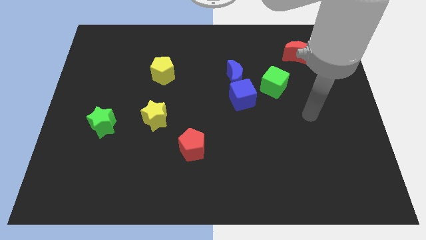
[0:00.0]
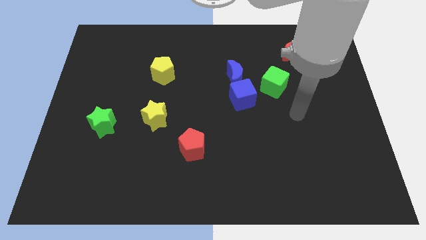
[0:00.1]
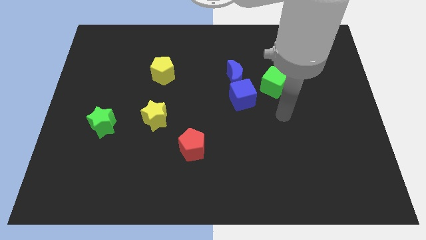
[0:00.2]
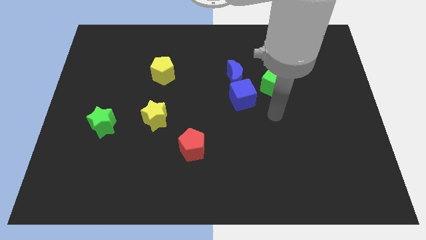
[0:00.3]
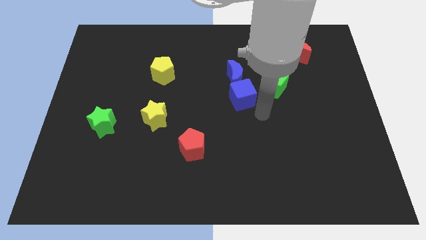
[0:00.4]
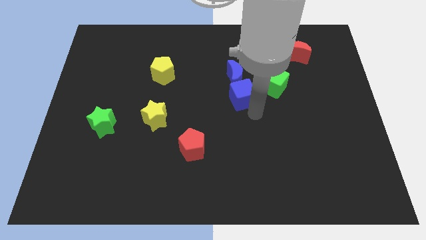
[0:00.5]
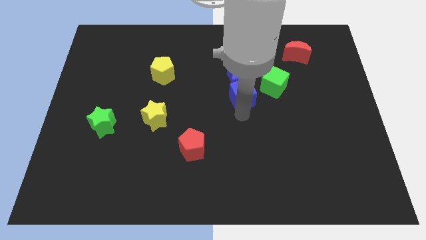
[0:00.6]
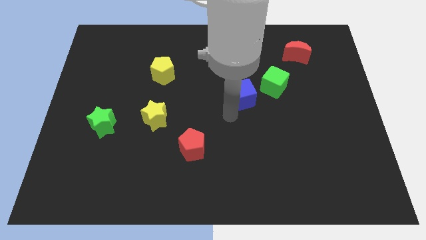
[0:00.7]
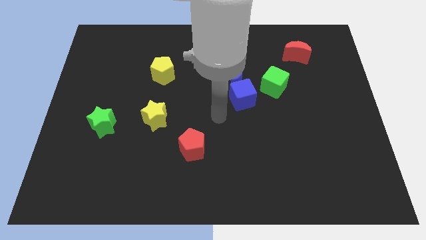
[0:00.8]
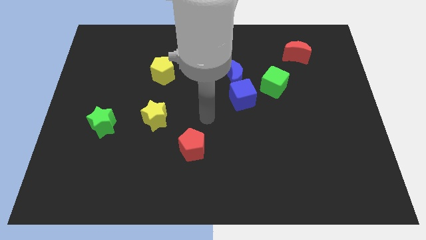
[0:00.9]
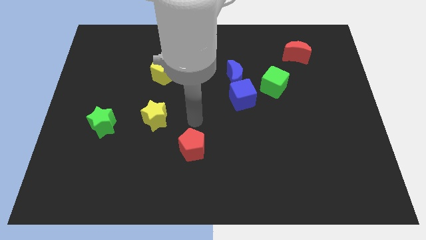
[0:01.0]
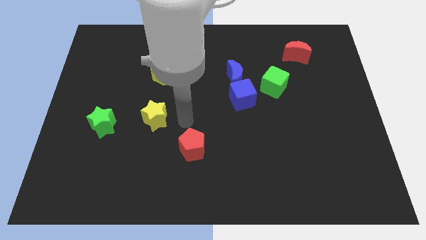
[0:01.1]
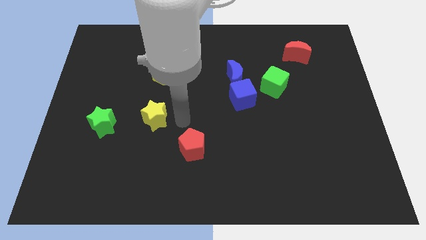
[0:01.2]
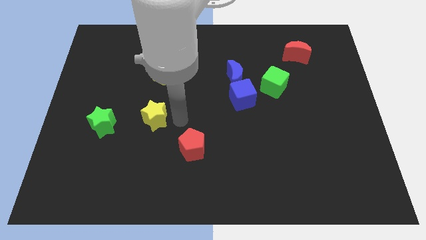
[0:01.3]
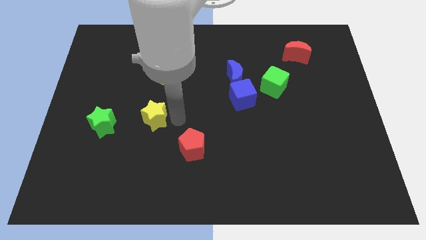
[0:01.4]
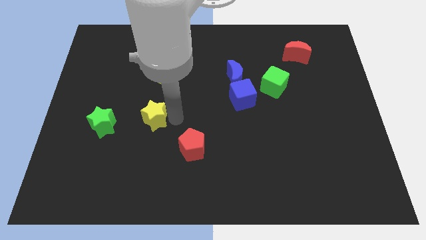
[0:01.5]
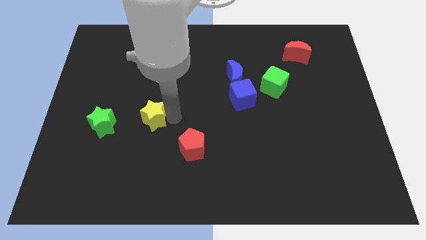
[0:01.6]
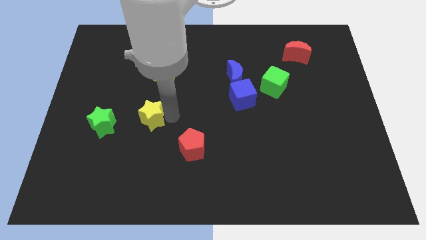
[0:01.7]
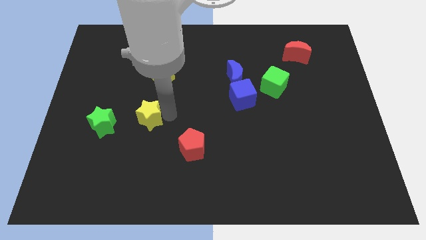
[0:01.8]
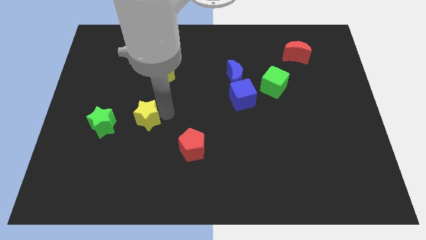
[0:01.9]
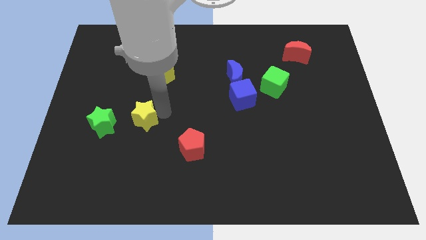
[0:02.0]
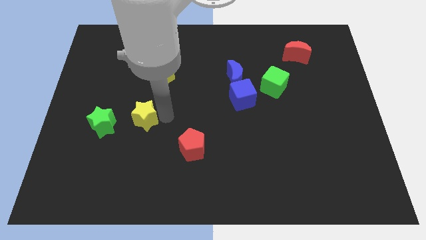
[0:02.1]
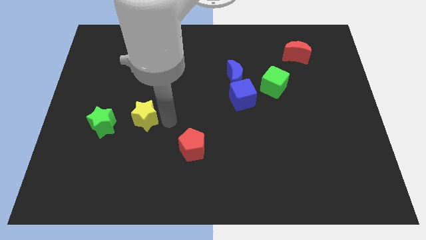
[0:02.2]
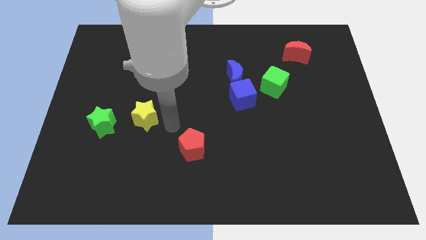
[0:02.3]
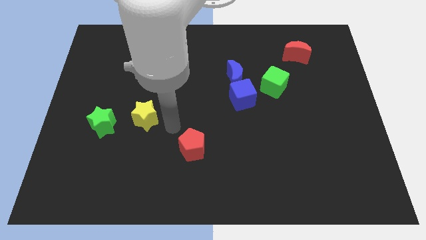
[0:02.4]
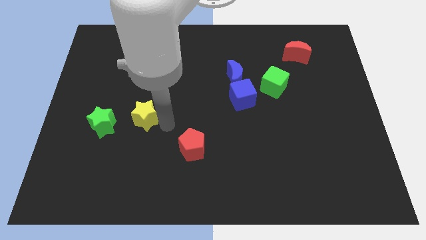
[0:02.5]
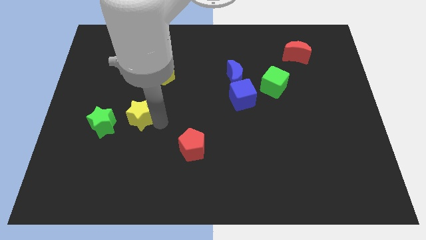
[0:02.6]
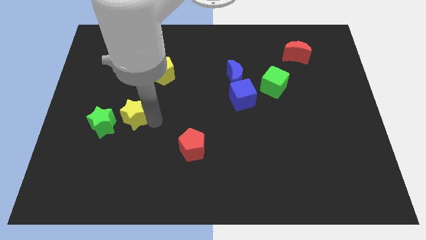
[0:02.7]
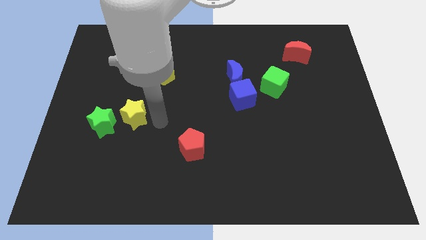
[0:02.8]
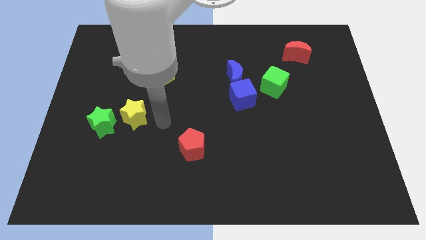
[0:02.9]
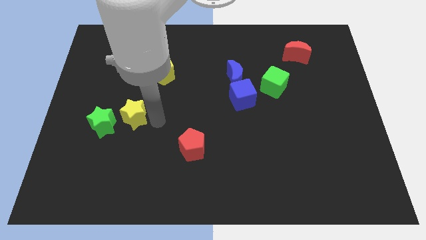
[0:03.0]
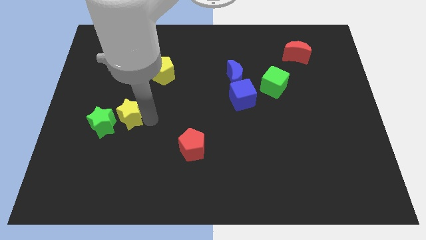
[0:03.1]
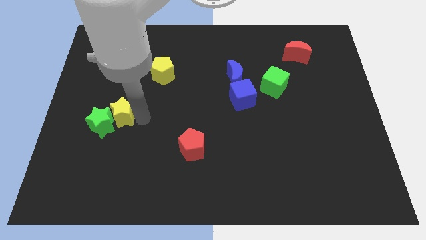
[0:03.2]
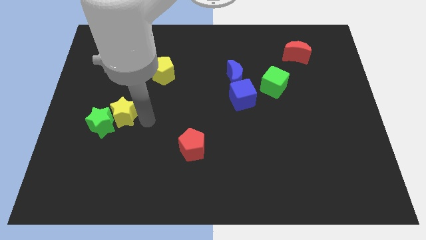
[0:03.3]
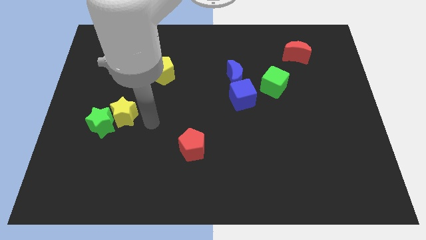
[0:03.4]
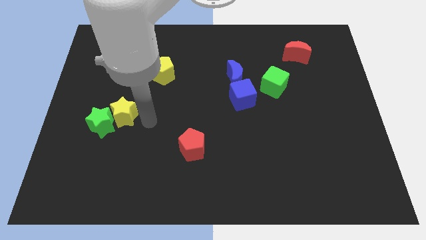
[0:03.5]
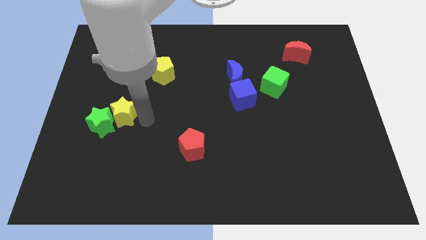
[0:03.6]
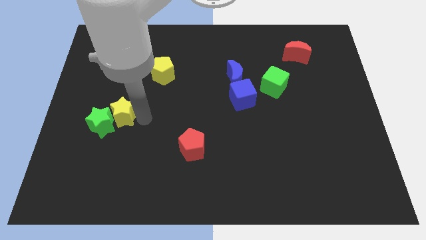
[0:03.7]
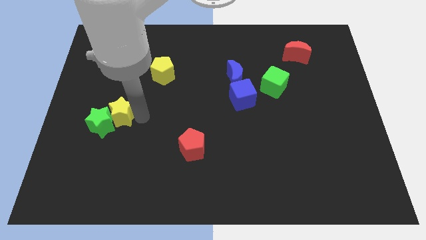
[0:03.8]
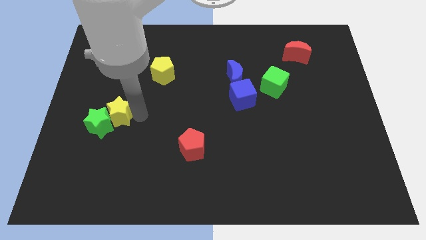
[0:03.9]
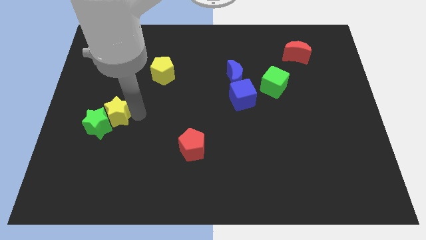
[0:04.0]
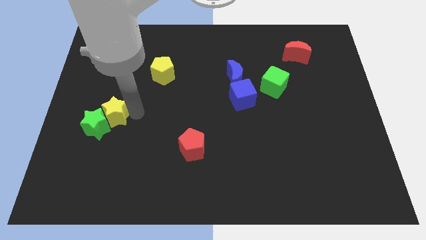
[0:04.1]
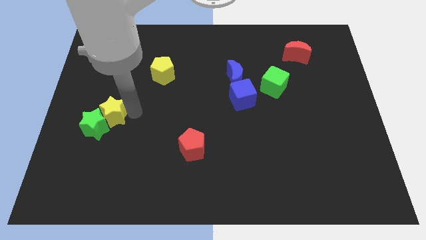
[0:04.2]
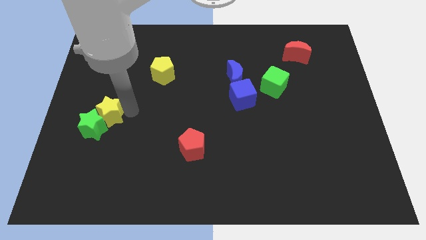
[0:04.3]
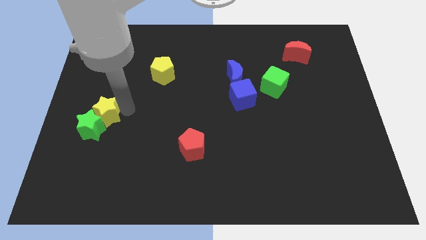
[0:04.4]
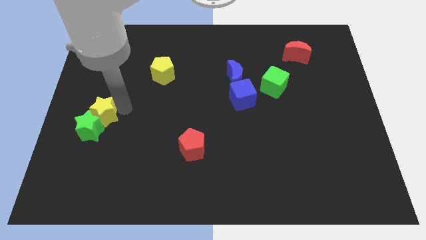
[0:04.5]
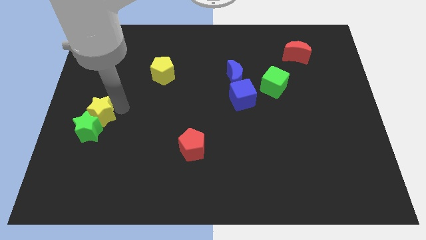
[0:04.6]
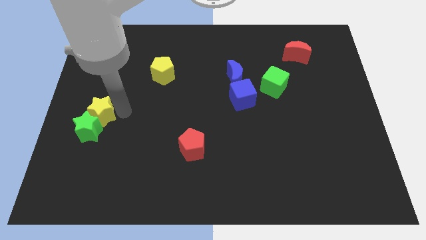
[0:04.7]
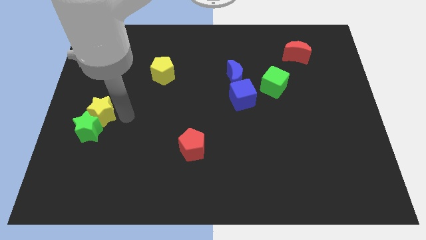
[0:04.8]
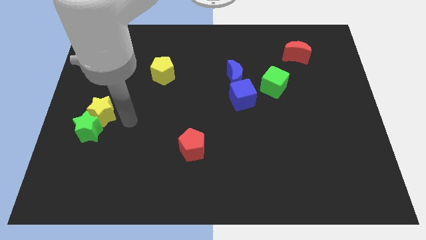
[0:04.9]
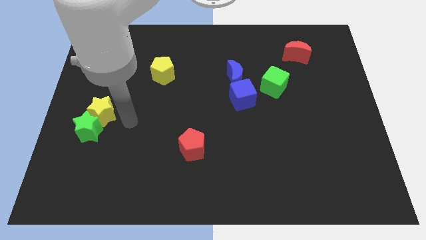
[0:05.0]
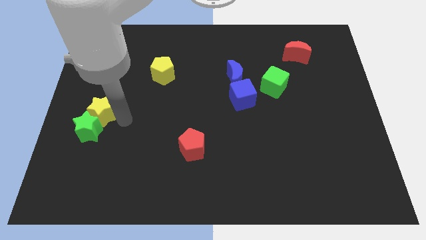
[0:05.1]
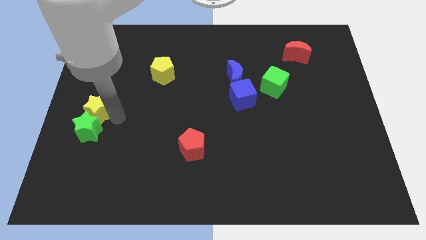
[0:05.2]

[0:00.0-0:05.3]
push the yellow star to the center left

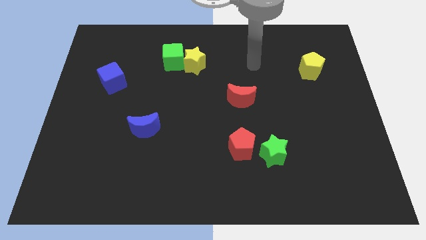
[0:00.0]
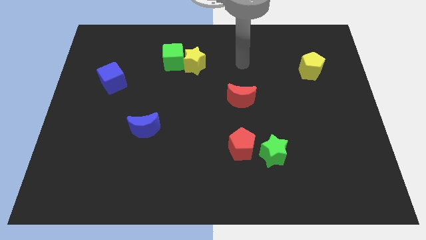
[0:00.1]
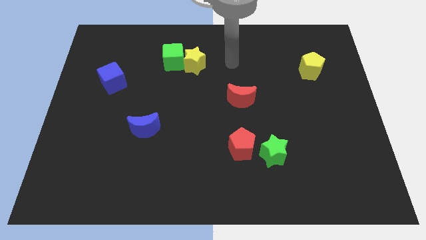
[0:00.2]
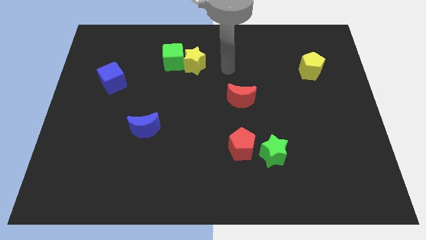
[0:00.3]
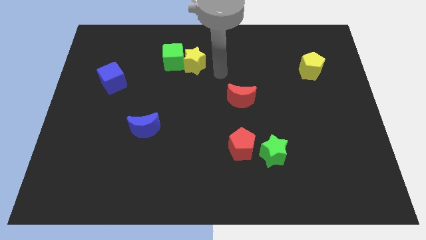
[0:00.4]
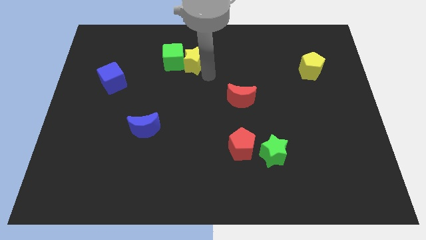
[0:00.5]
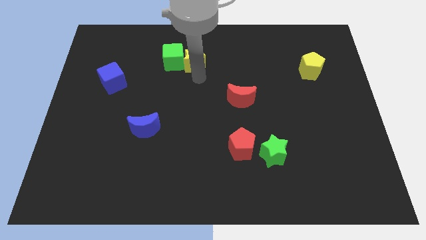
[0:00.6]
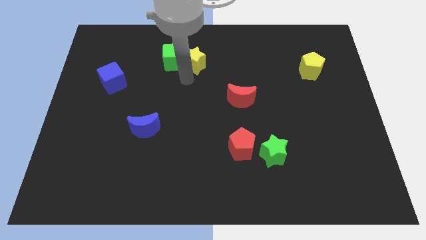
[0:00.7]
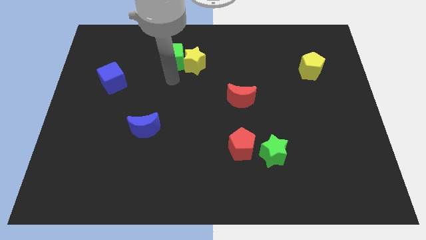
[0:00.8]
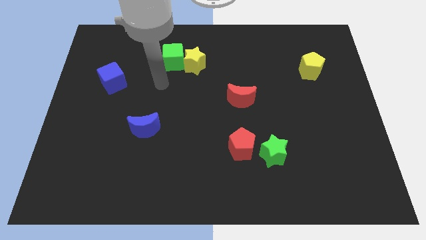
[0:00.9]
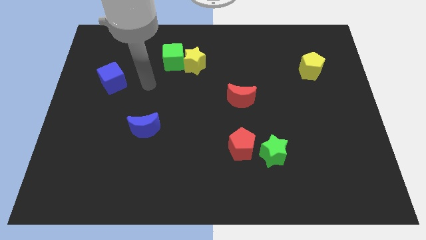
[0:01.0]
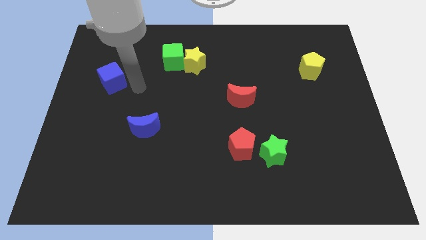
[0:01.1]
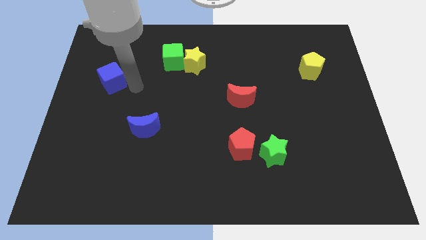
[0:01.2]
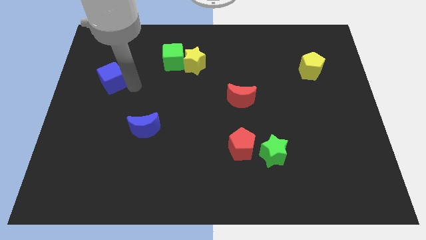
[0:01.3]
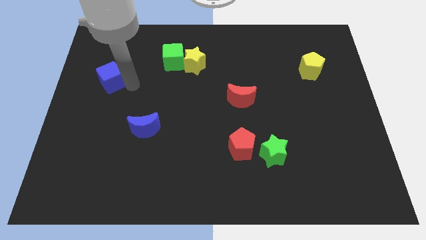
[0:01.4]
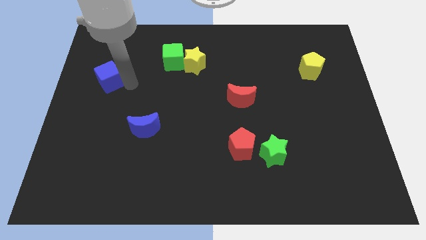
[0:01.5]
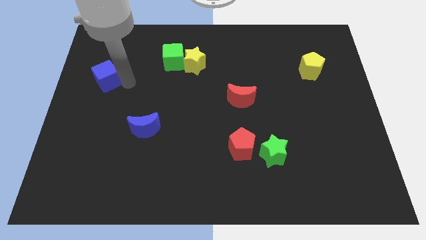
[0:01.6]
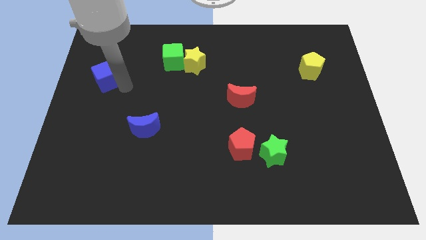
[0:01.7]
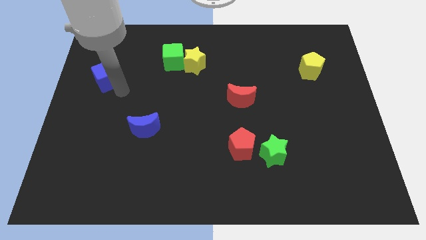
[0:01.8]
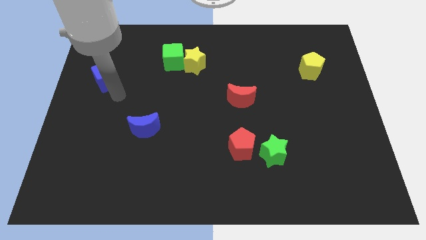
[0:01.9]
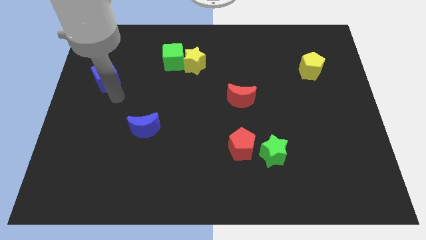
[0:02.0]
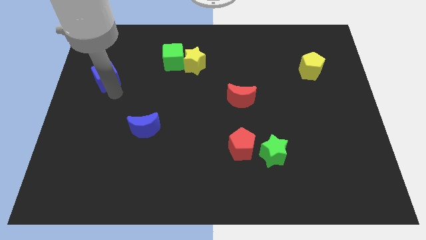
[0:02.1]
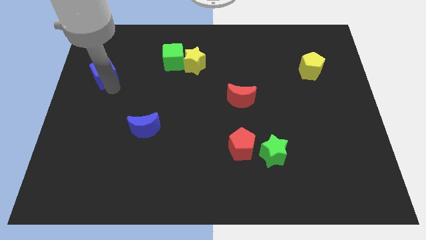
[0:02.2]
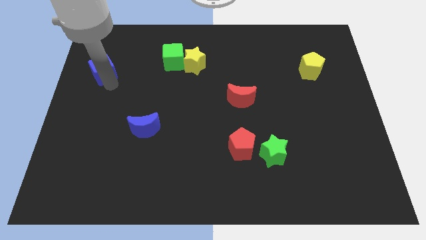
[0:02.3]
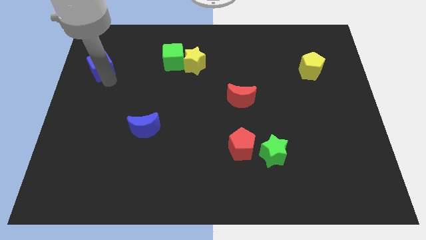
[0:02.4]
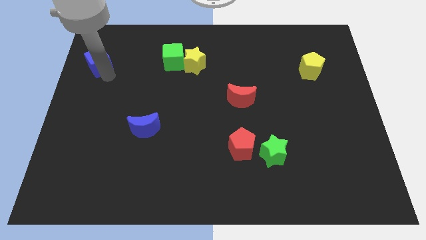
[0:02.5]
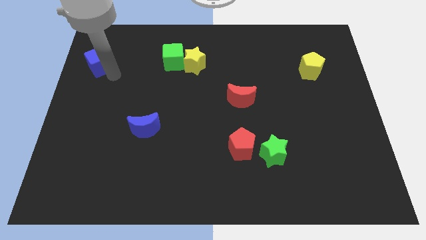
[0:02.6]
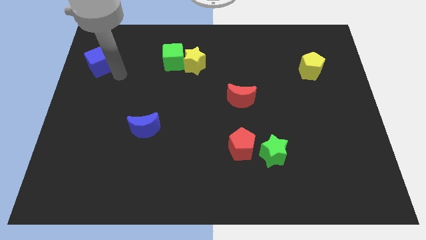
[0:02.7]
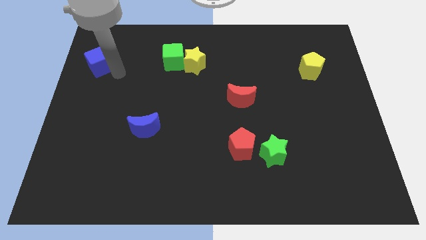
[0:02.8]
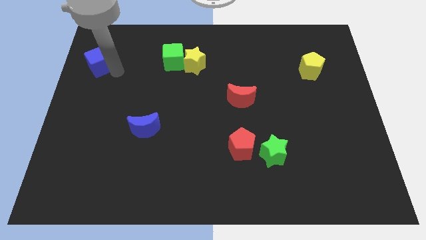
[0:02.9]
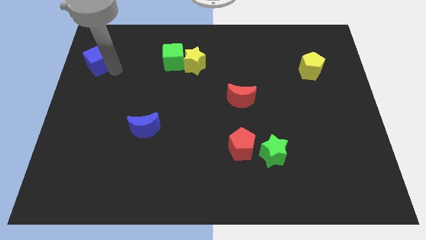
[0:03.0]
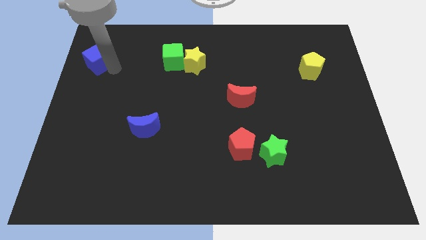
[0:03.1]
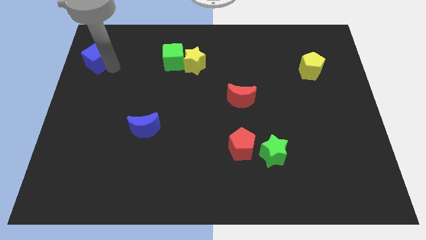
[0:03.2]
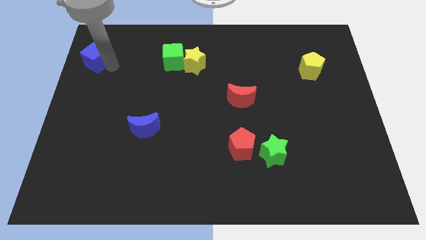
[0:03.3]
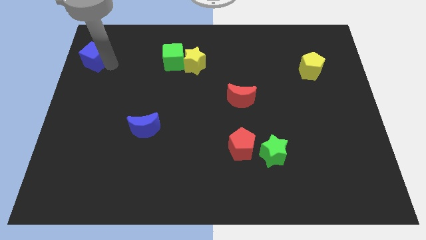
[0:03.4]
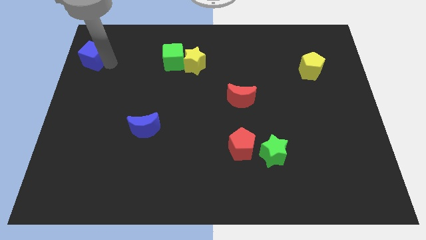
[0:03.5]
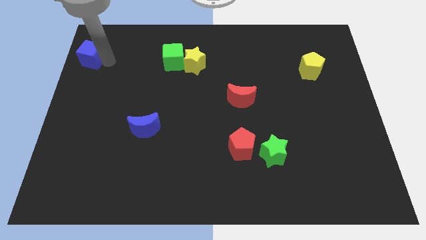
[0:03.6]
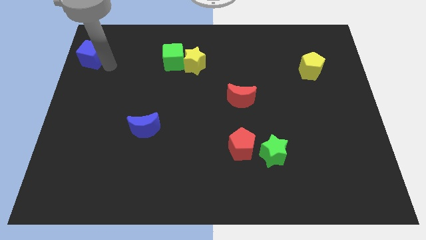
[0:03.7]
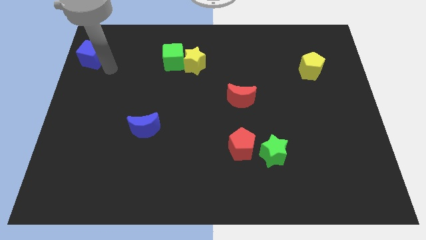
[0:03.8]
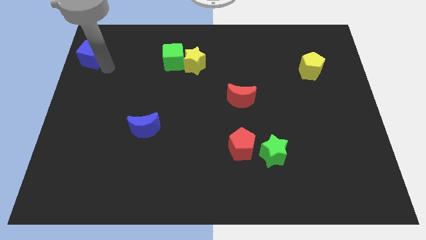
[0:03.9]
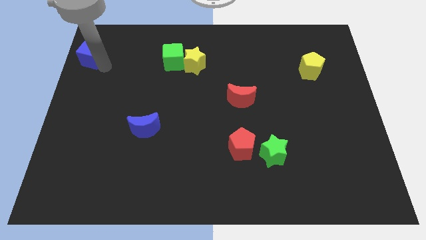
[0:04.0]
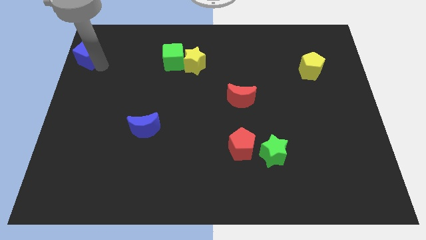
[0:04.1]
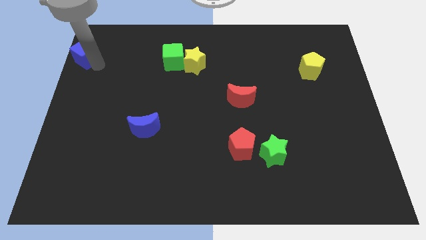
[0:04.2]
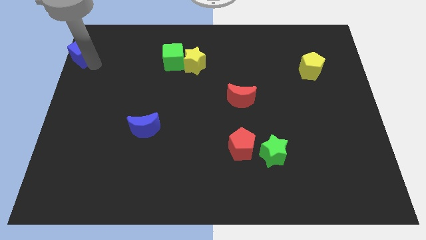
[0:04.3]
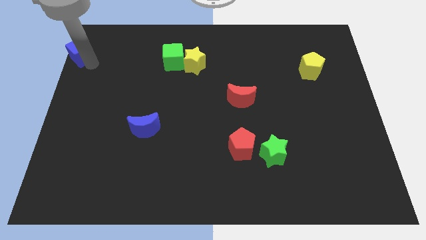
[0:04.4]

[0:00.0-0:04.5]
push the blue cube to the upper left corner
